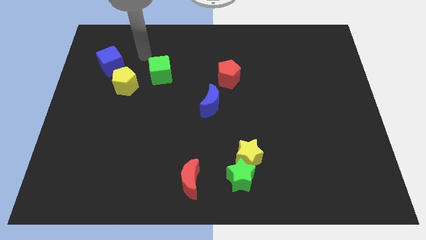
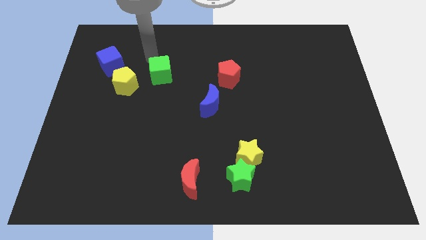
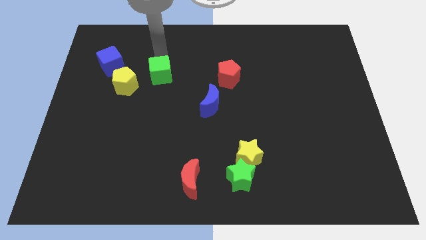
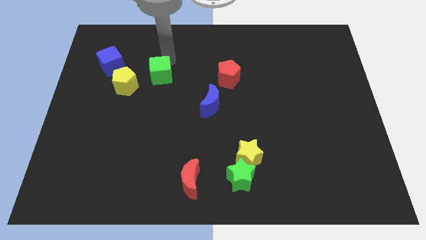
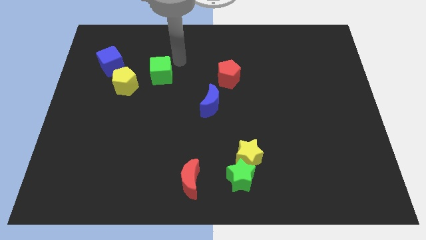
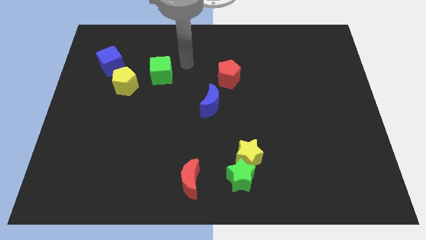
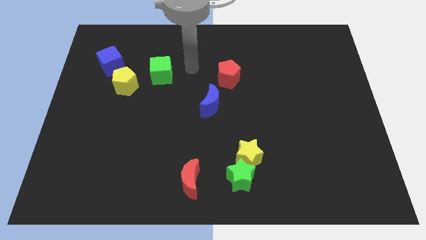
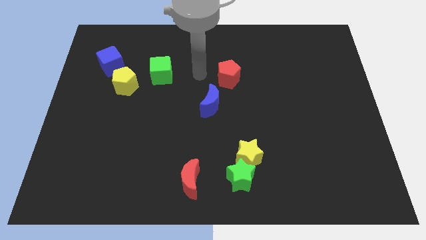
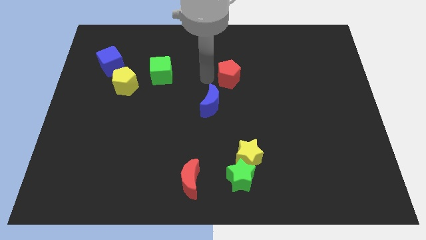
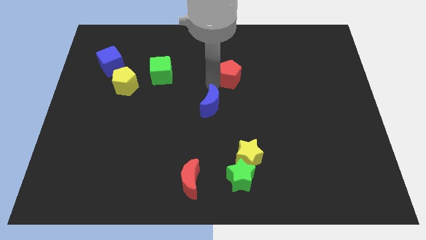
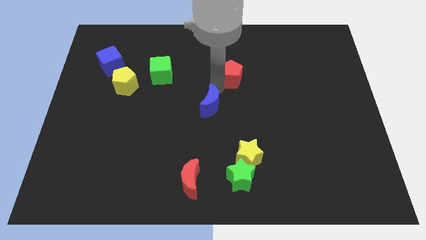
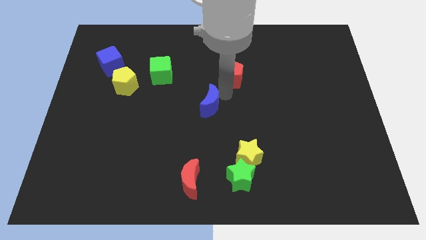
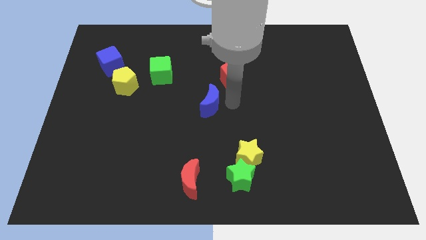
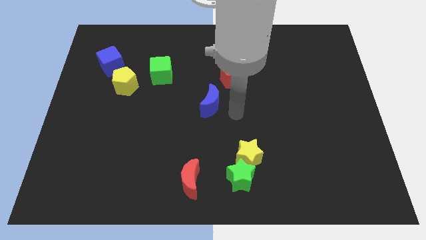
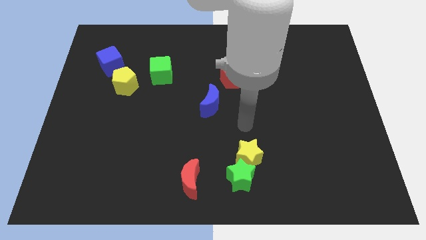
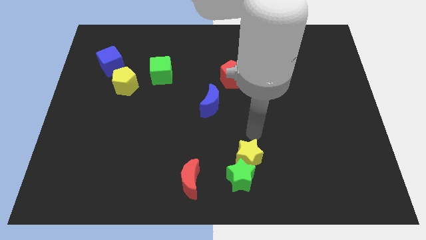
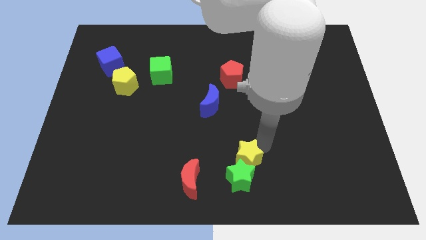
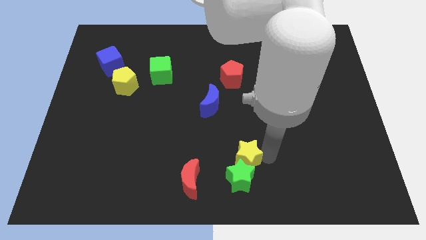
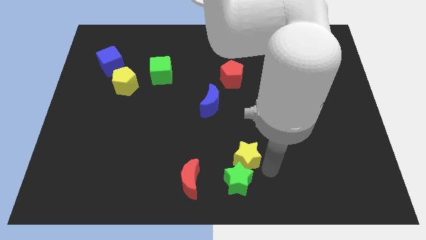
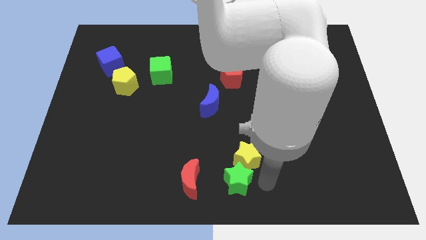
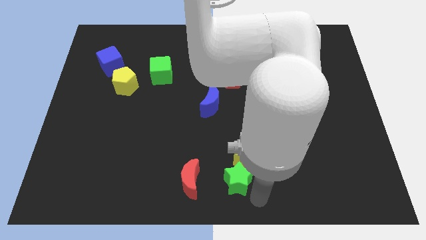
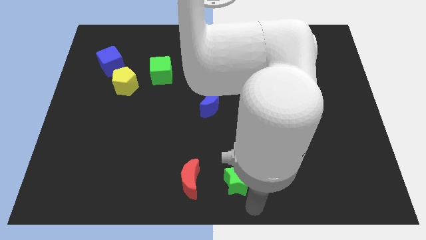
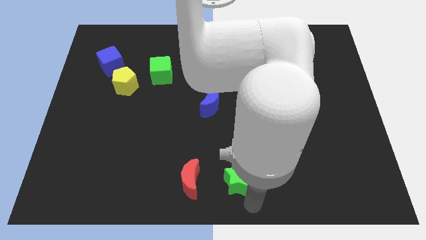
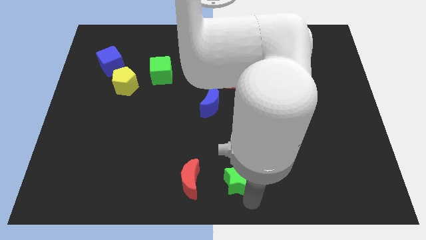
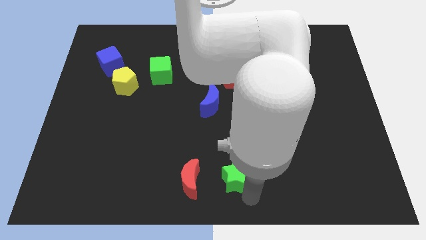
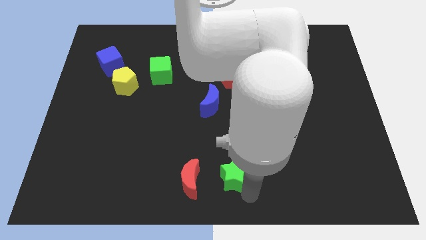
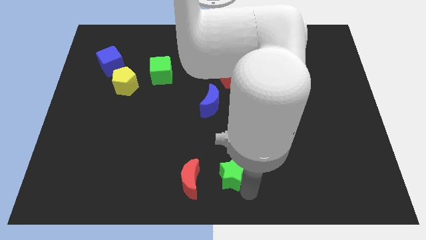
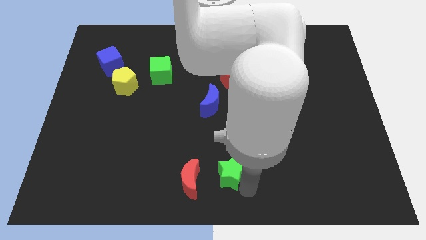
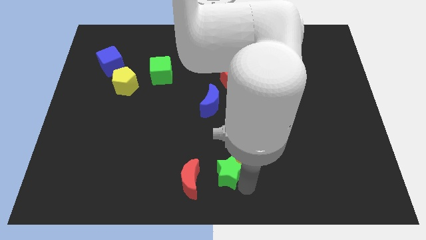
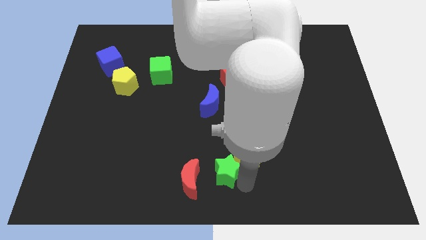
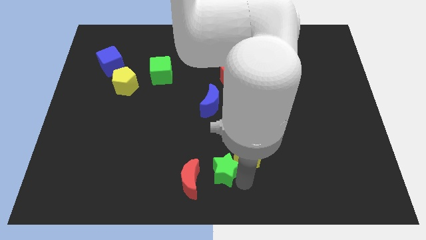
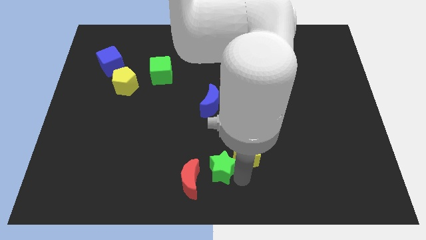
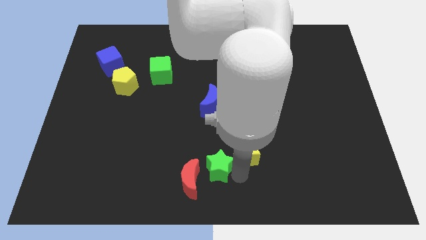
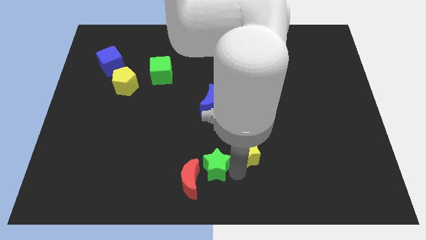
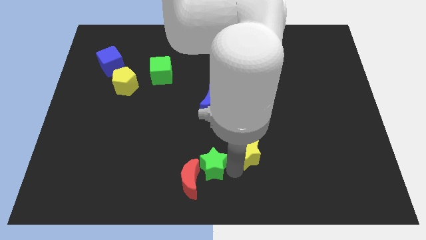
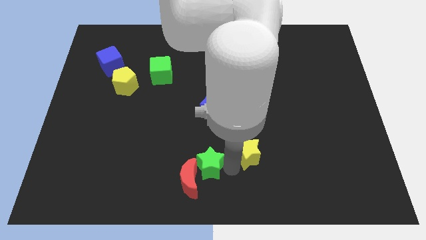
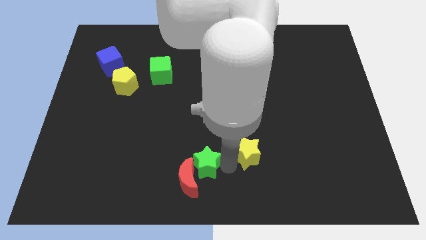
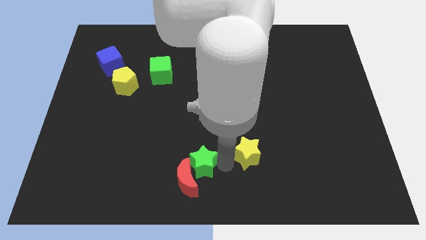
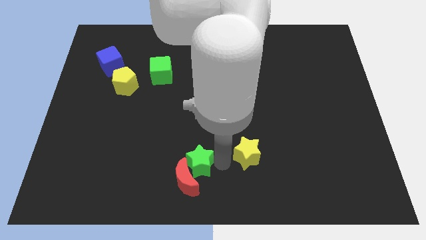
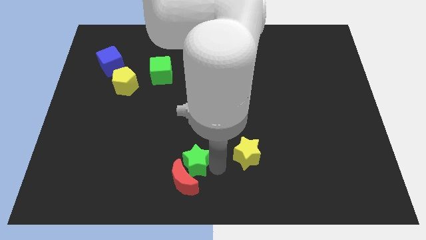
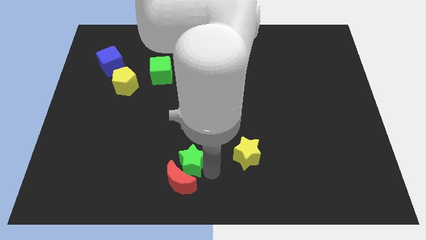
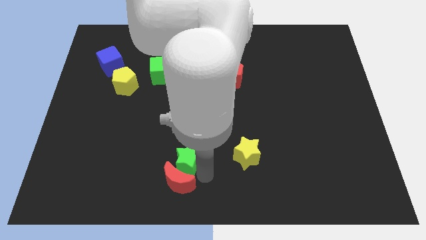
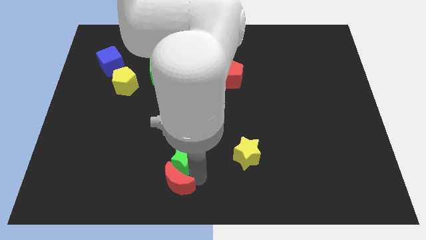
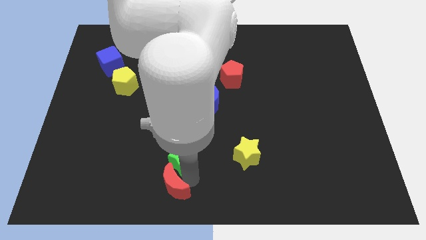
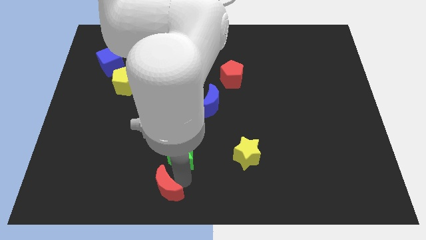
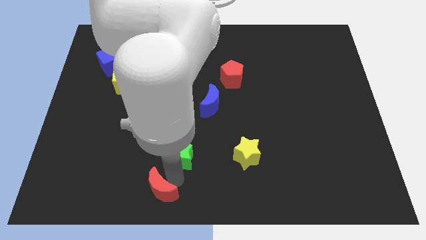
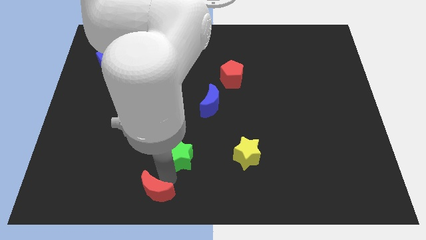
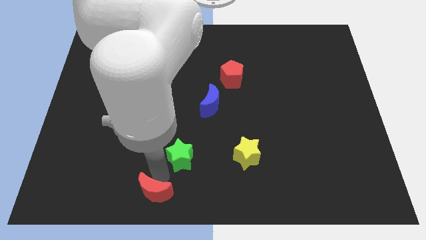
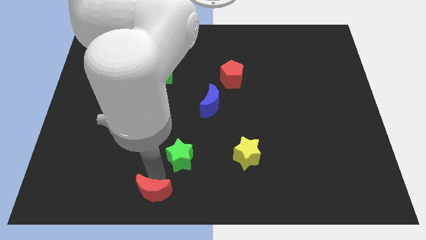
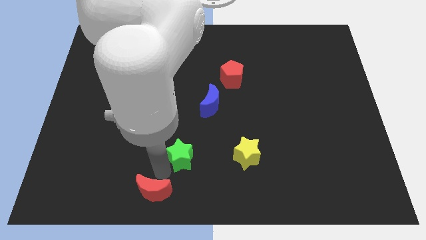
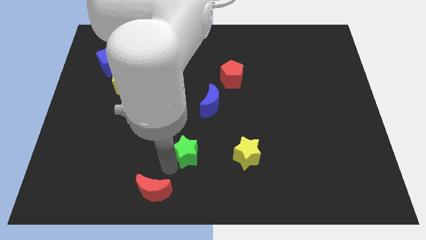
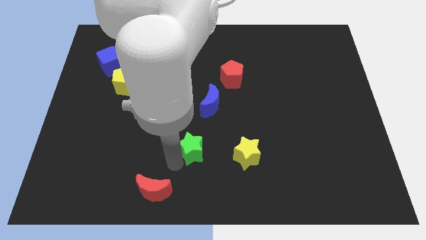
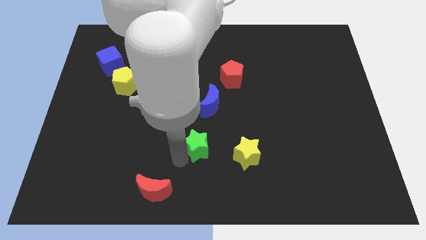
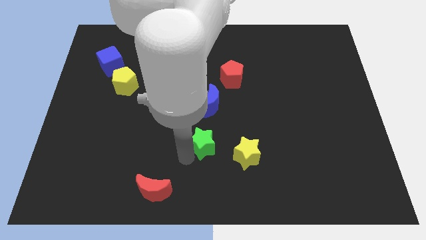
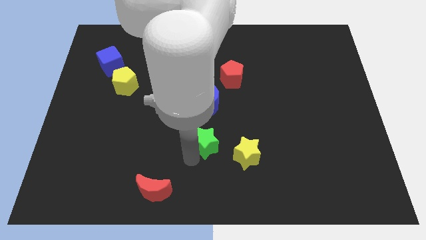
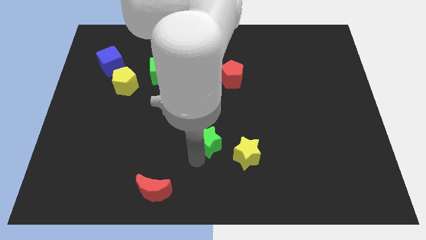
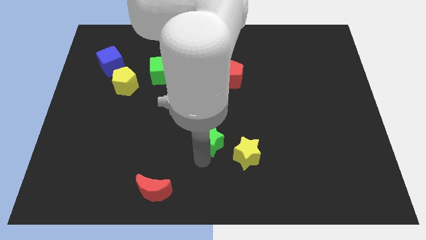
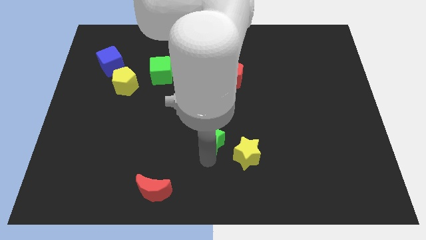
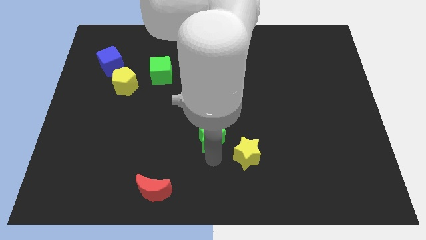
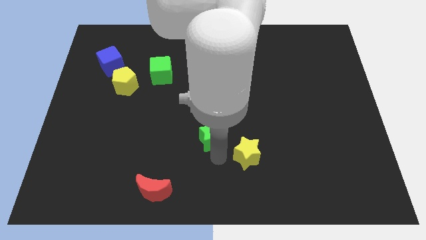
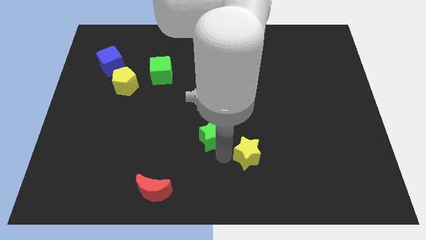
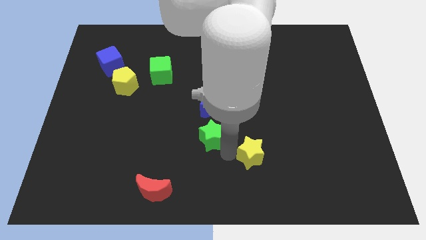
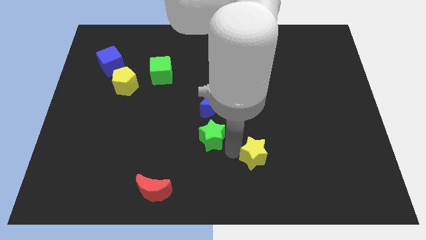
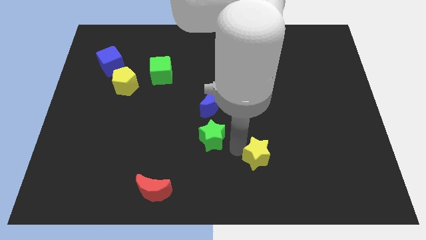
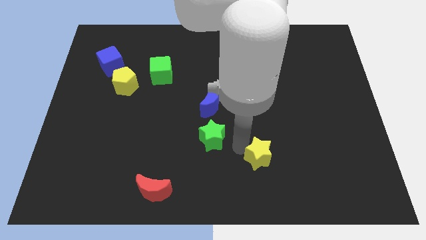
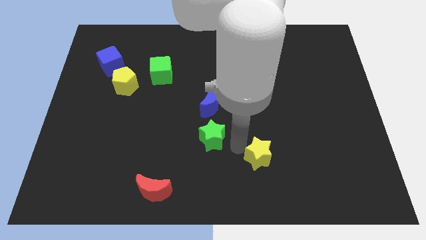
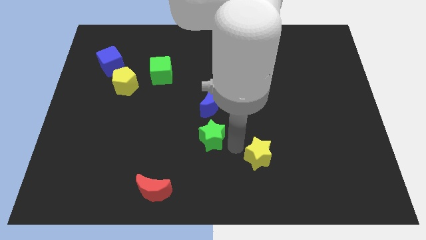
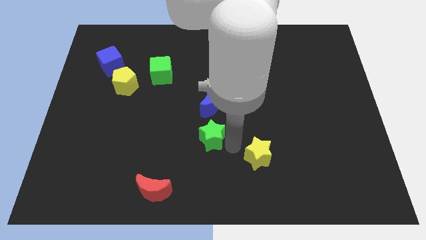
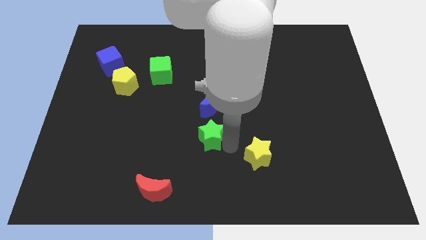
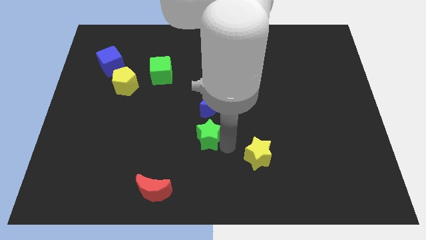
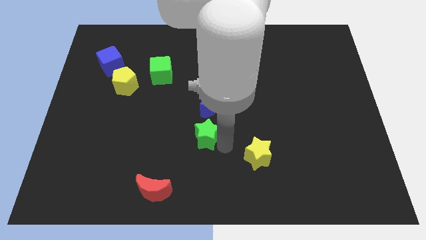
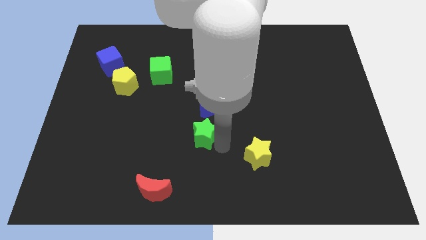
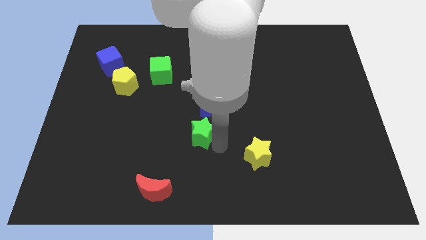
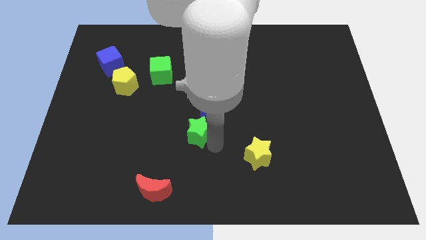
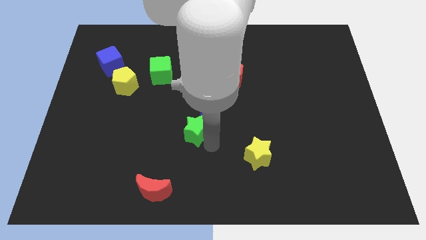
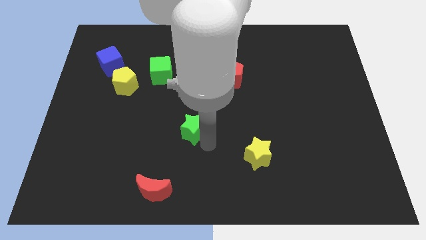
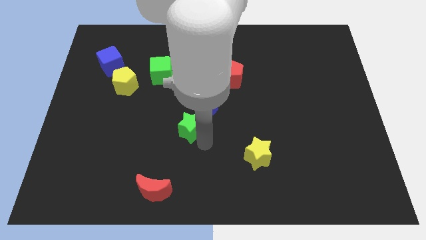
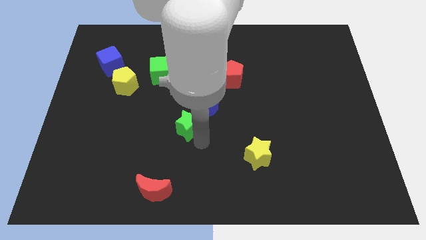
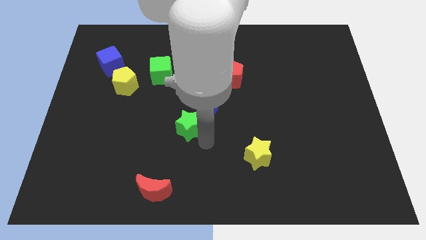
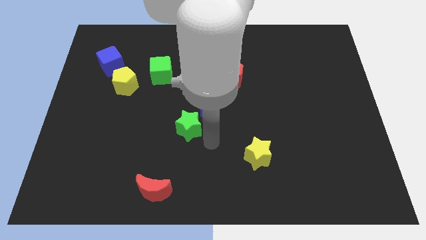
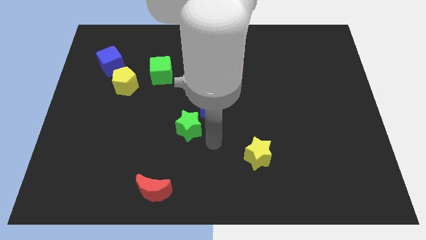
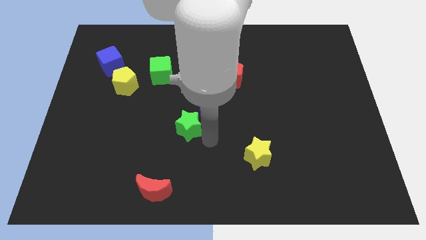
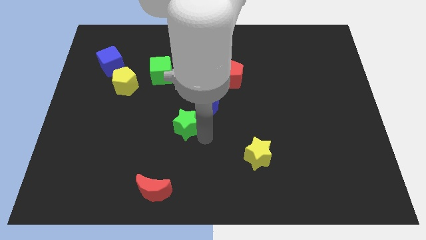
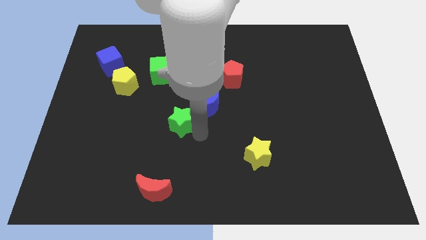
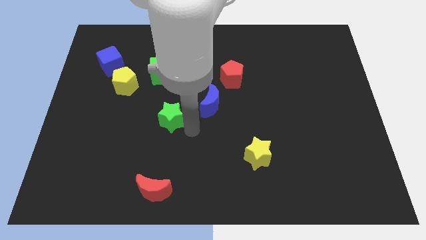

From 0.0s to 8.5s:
slide the green star to the bottom side of the green cube
